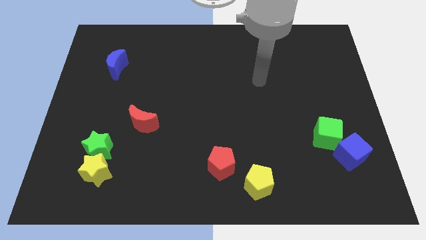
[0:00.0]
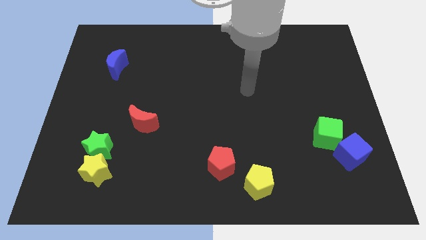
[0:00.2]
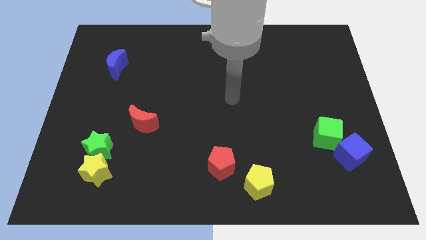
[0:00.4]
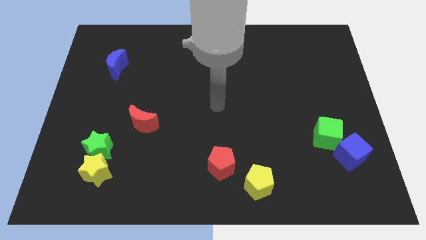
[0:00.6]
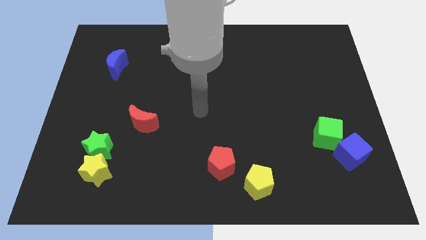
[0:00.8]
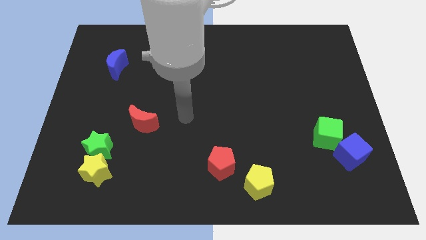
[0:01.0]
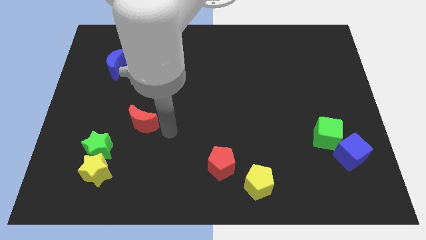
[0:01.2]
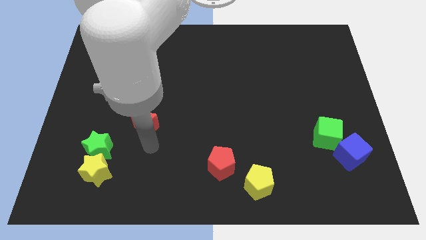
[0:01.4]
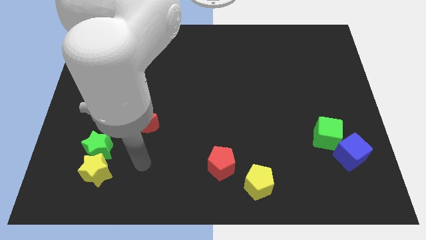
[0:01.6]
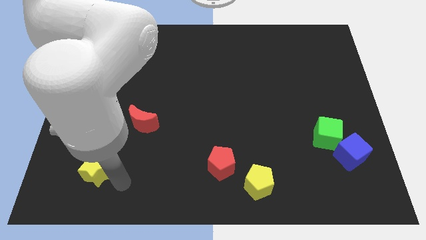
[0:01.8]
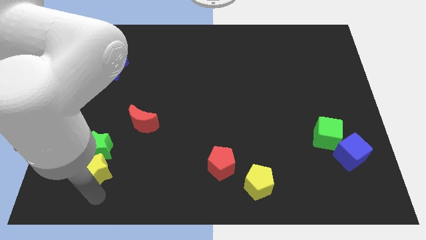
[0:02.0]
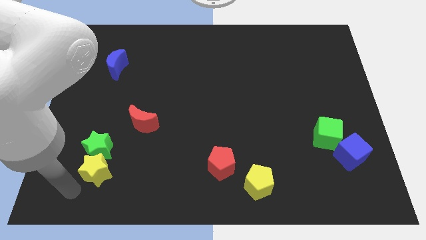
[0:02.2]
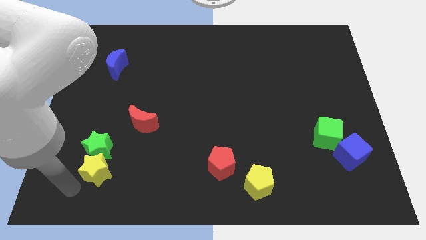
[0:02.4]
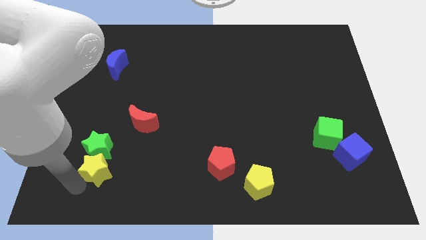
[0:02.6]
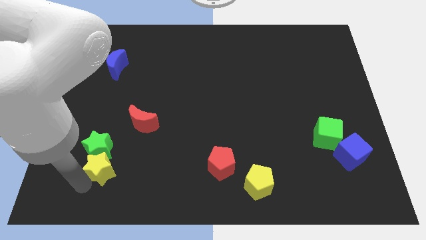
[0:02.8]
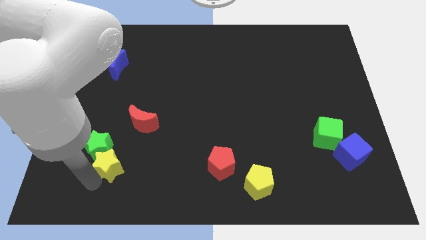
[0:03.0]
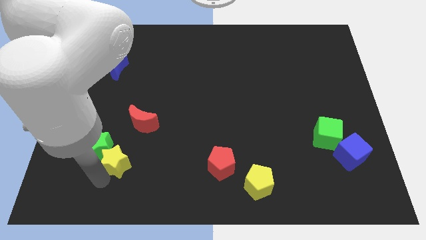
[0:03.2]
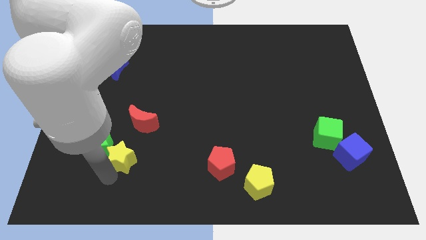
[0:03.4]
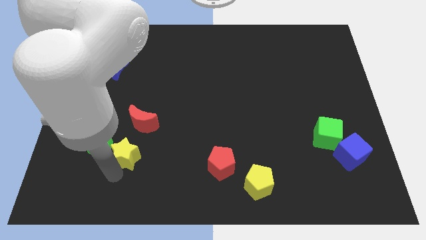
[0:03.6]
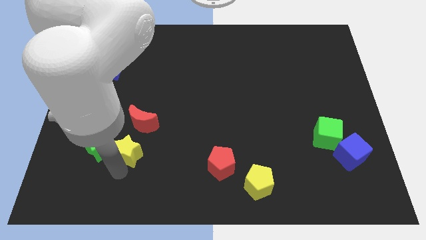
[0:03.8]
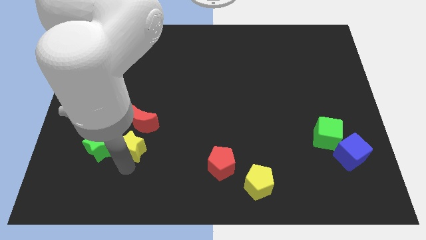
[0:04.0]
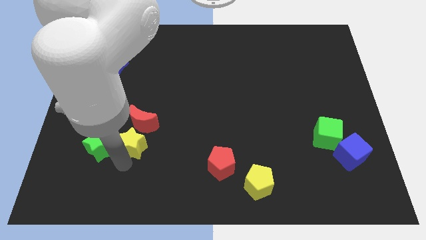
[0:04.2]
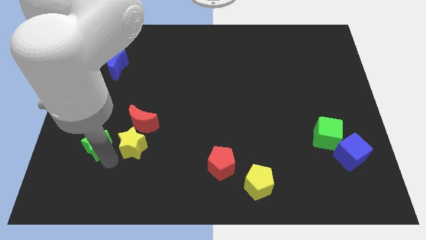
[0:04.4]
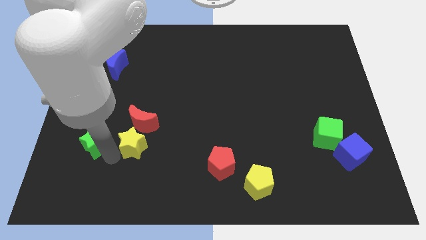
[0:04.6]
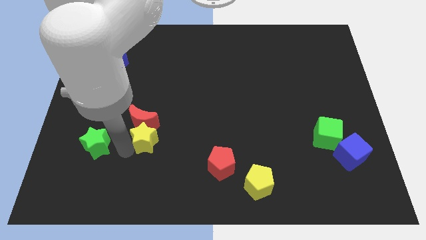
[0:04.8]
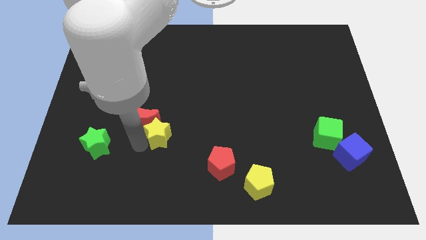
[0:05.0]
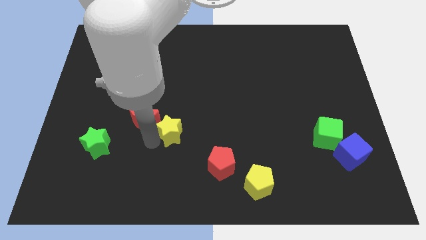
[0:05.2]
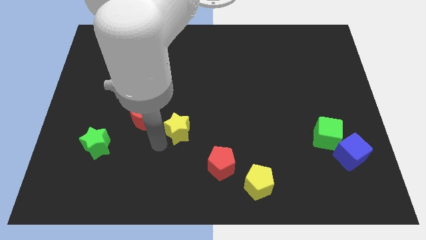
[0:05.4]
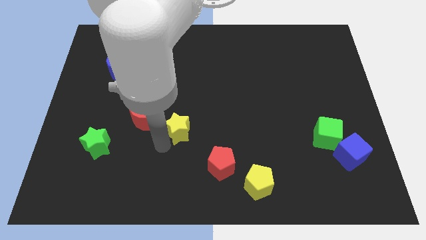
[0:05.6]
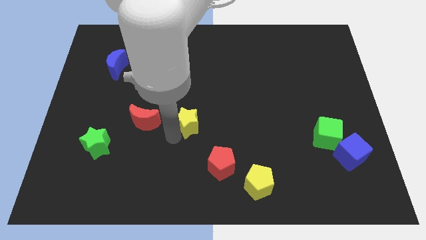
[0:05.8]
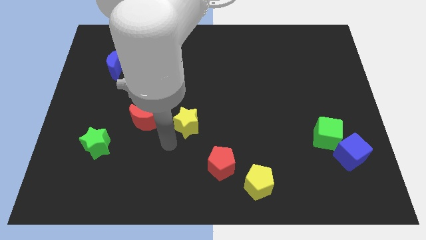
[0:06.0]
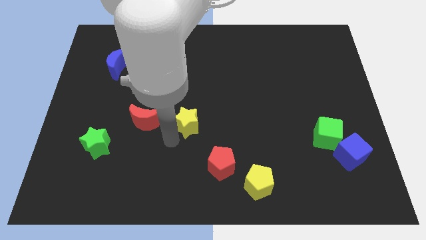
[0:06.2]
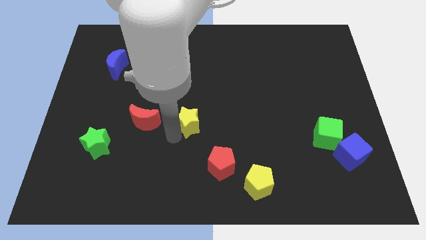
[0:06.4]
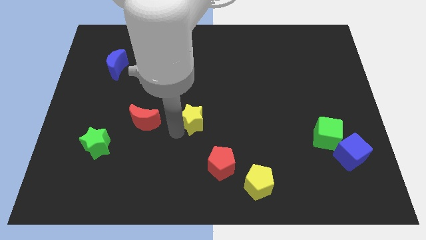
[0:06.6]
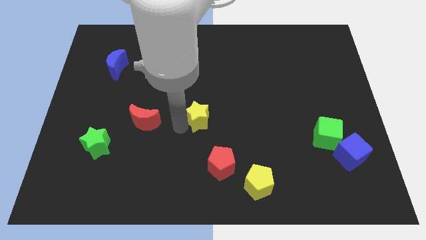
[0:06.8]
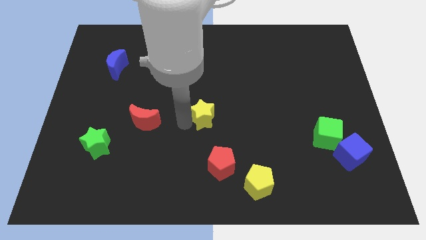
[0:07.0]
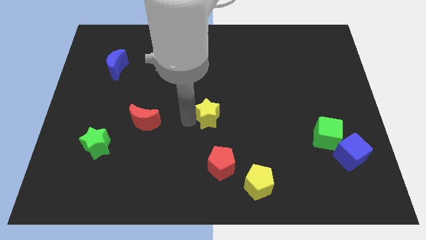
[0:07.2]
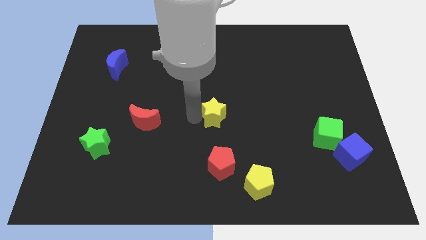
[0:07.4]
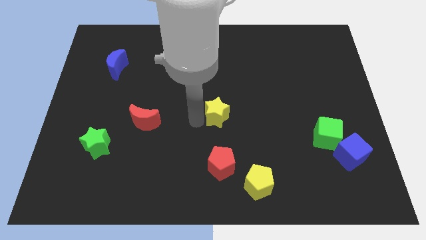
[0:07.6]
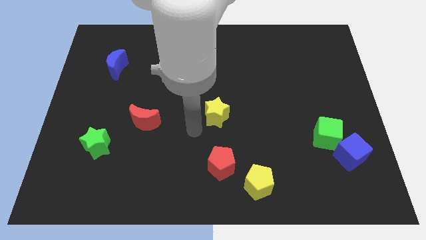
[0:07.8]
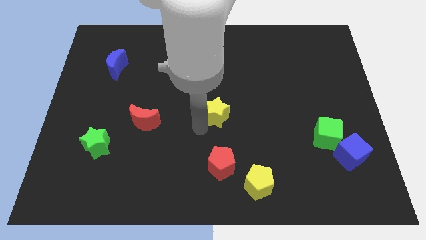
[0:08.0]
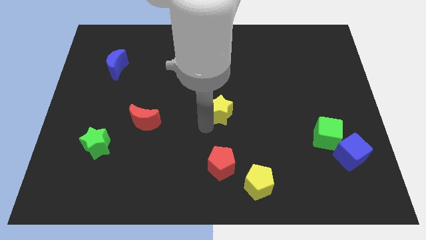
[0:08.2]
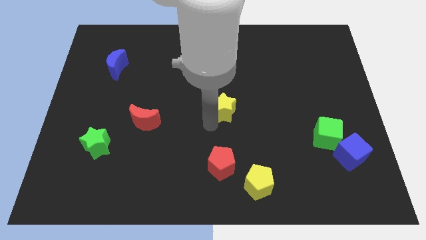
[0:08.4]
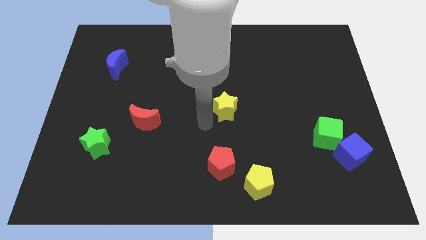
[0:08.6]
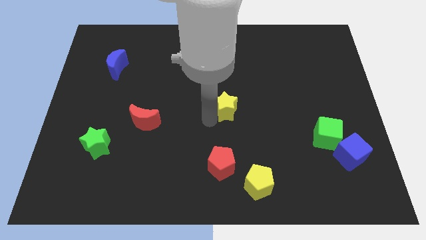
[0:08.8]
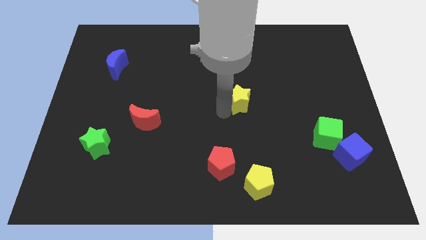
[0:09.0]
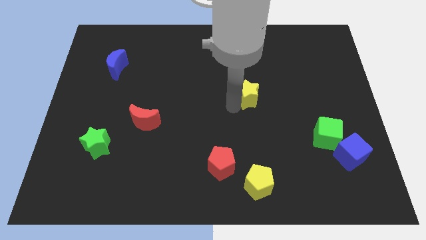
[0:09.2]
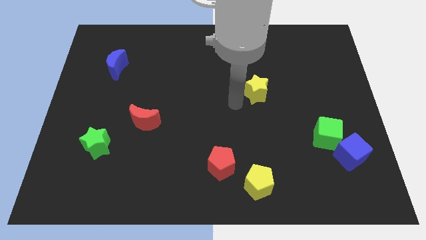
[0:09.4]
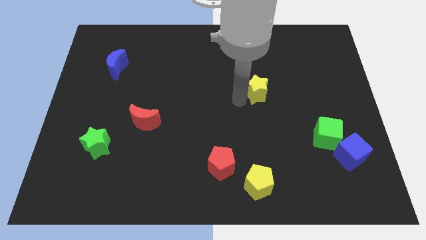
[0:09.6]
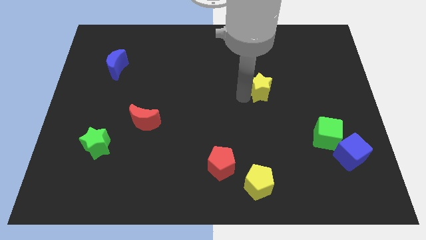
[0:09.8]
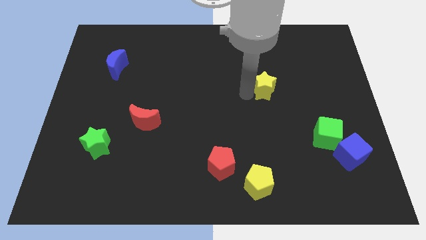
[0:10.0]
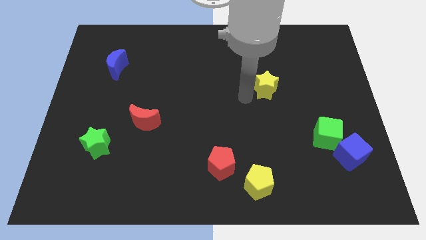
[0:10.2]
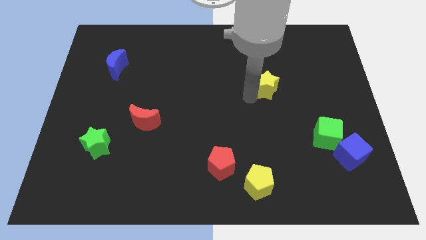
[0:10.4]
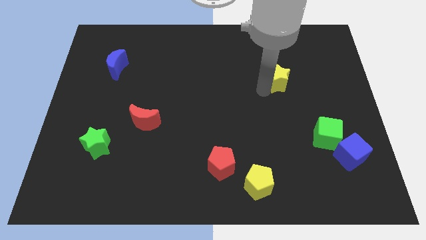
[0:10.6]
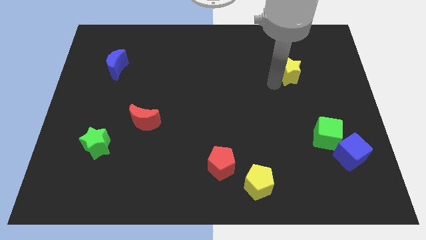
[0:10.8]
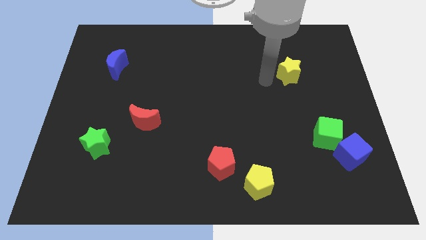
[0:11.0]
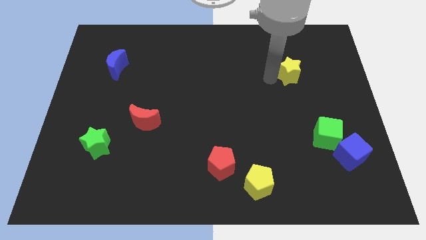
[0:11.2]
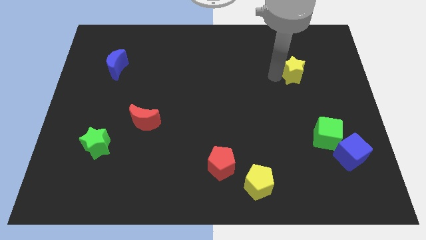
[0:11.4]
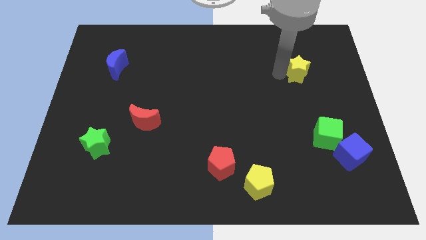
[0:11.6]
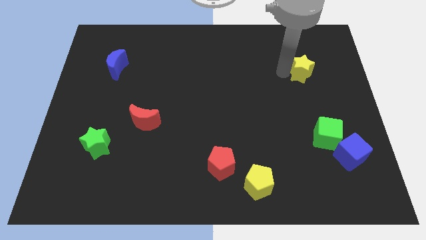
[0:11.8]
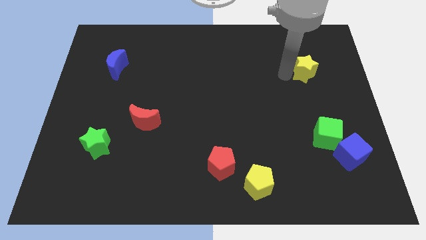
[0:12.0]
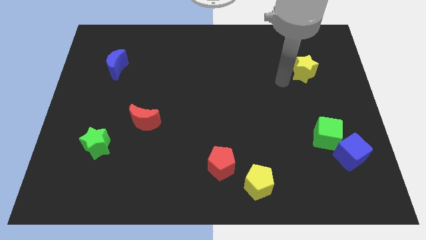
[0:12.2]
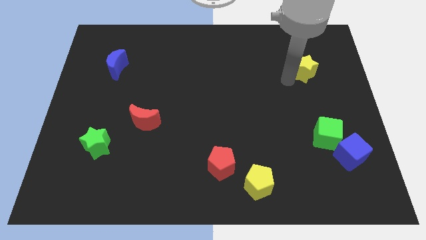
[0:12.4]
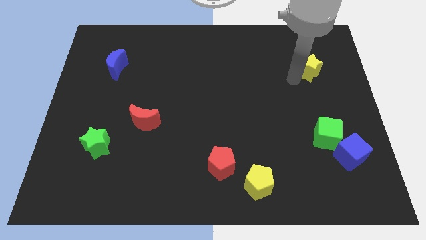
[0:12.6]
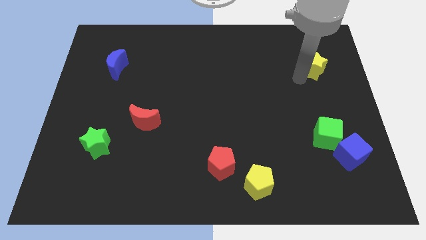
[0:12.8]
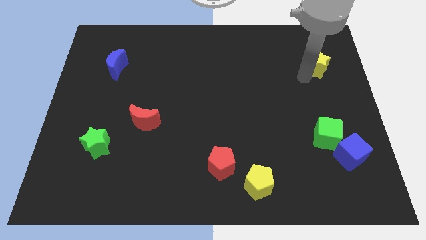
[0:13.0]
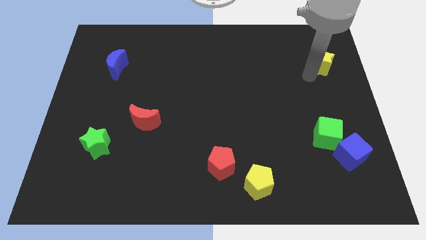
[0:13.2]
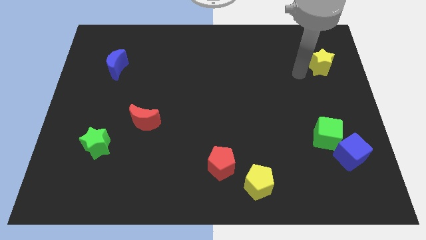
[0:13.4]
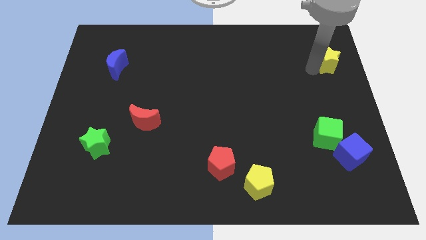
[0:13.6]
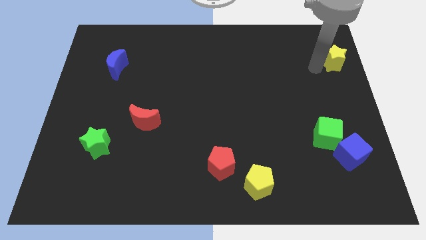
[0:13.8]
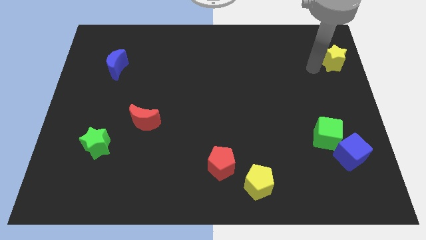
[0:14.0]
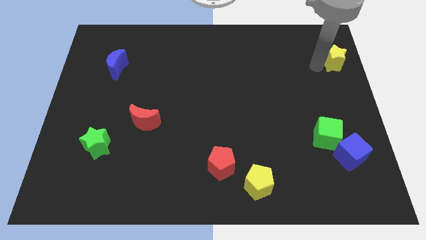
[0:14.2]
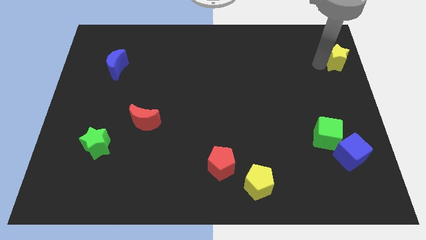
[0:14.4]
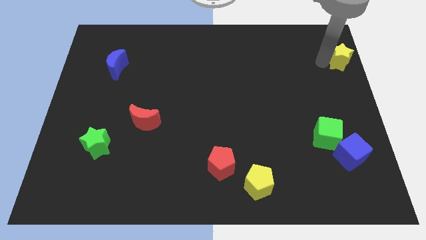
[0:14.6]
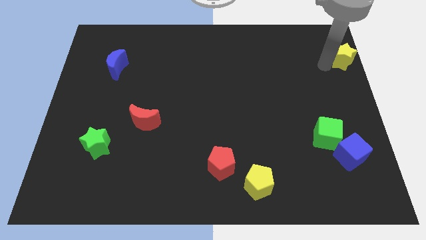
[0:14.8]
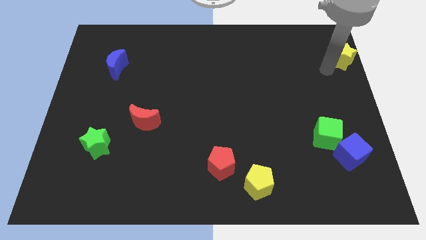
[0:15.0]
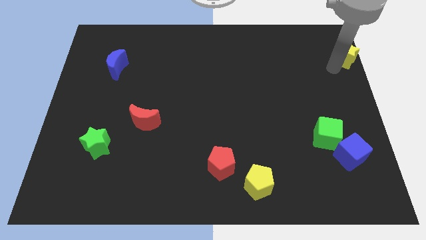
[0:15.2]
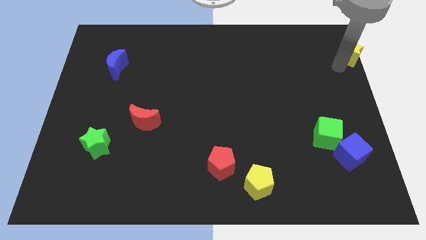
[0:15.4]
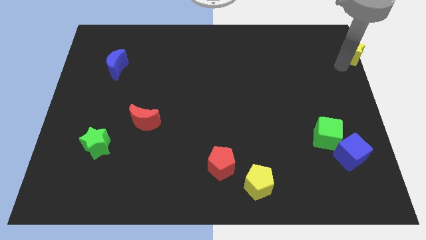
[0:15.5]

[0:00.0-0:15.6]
put the yellow star to the top right
